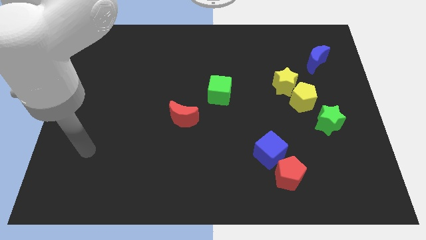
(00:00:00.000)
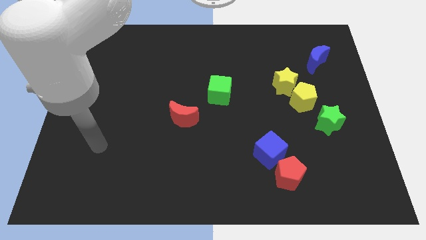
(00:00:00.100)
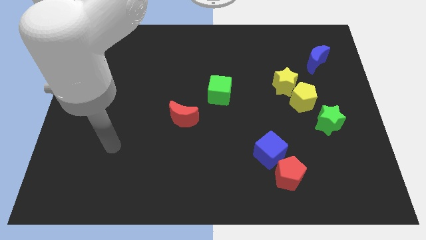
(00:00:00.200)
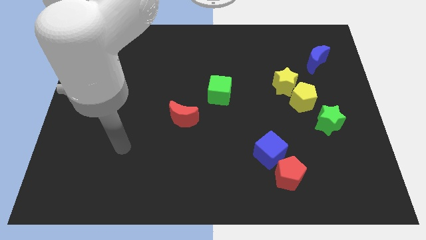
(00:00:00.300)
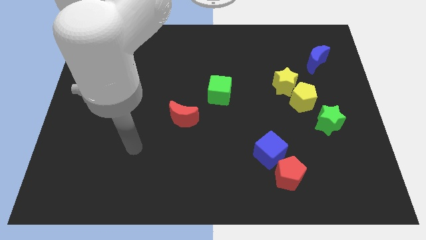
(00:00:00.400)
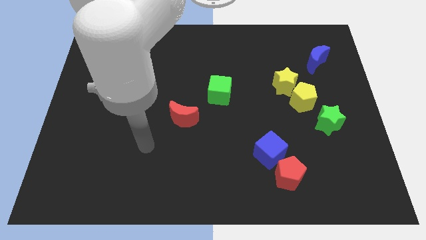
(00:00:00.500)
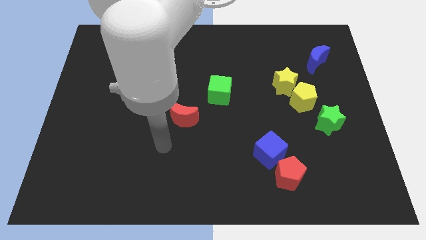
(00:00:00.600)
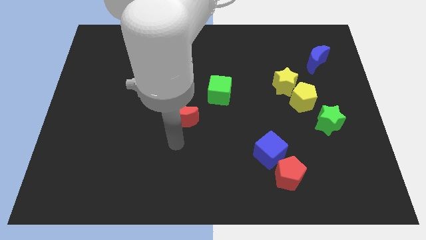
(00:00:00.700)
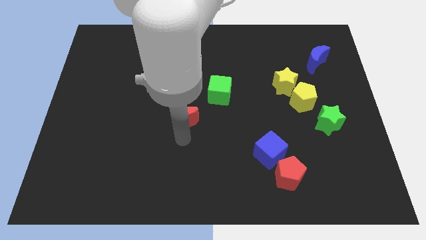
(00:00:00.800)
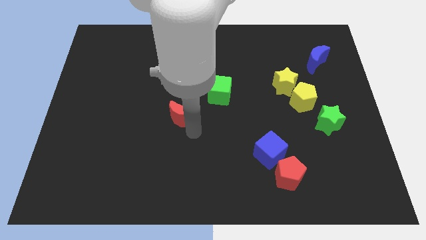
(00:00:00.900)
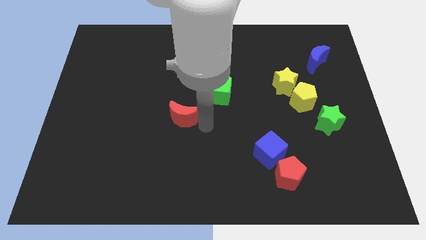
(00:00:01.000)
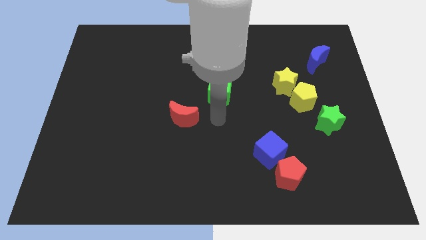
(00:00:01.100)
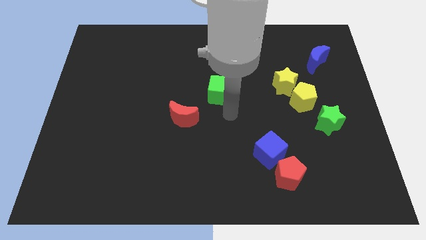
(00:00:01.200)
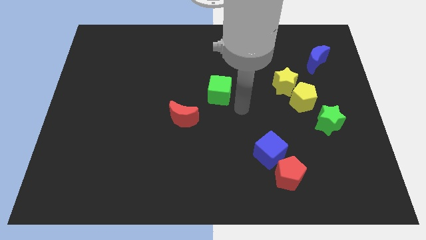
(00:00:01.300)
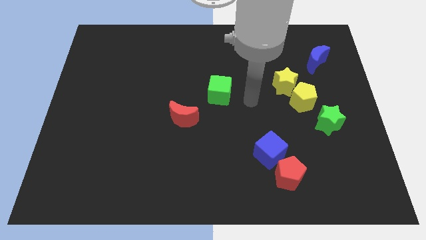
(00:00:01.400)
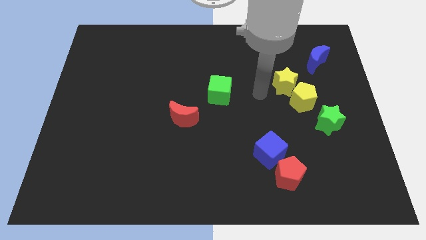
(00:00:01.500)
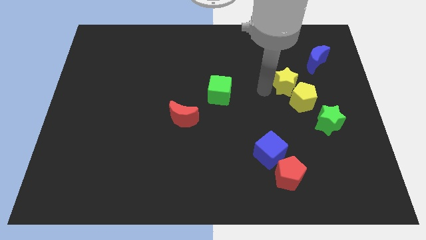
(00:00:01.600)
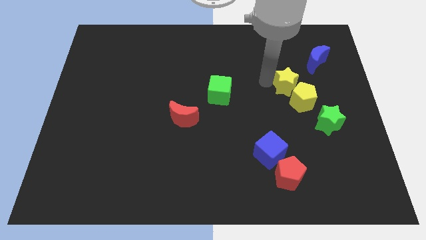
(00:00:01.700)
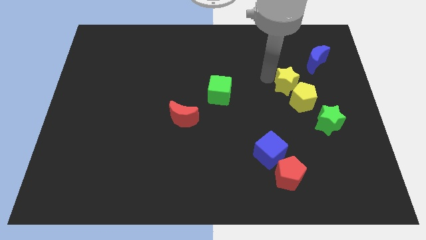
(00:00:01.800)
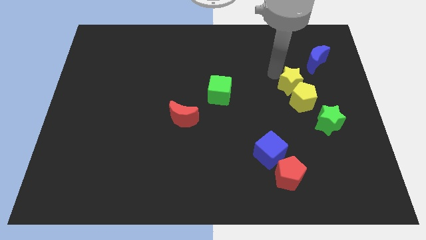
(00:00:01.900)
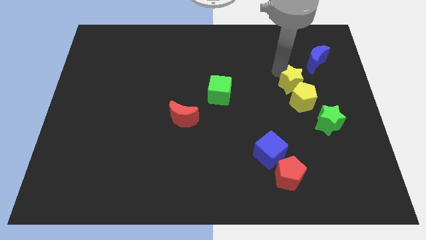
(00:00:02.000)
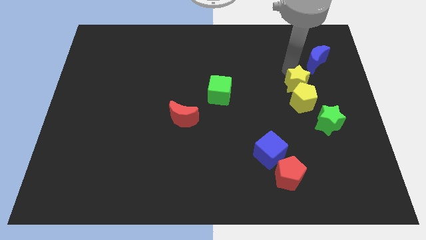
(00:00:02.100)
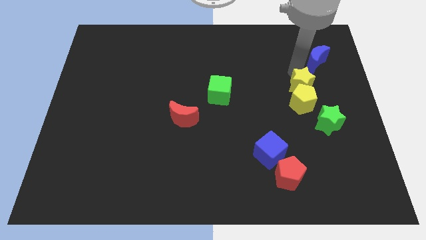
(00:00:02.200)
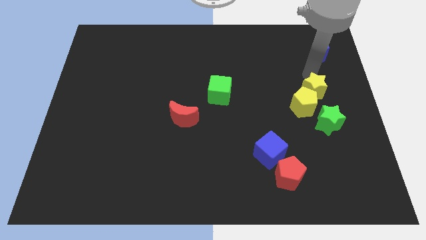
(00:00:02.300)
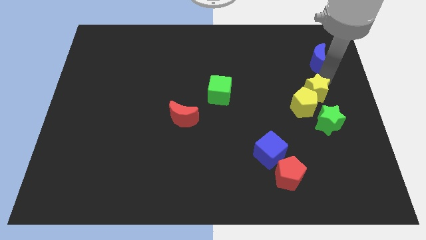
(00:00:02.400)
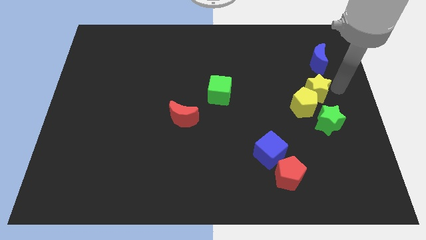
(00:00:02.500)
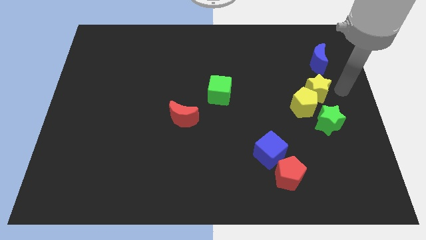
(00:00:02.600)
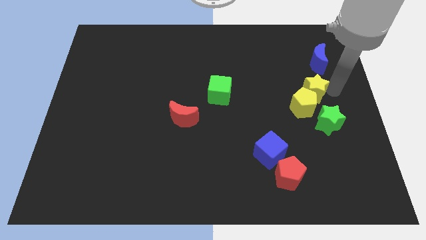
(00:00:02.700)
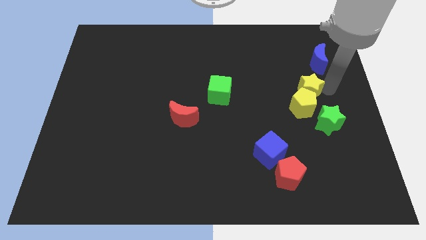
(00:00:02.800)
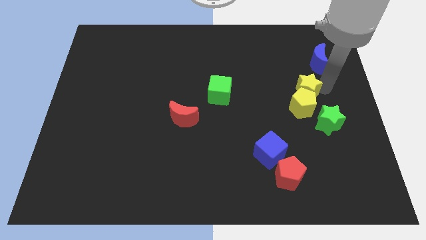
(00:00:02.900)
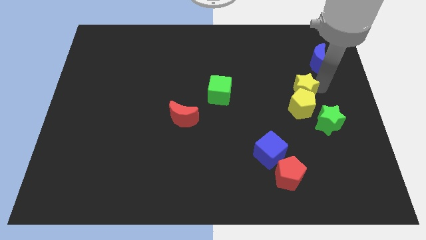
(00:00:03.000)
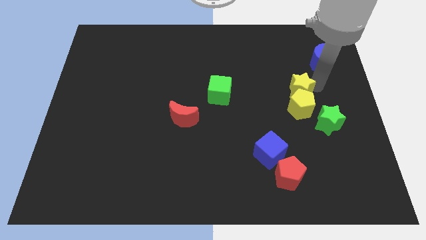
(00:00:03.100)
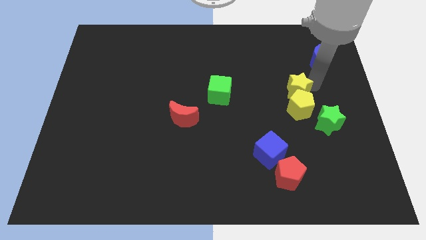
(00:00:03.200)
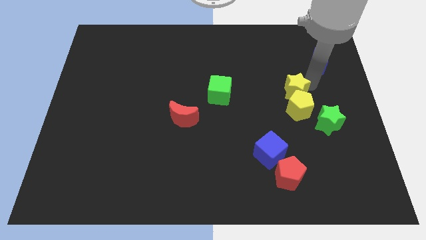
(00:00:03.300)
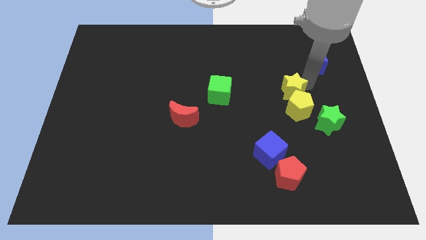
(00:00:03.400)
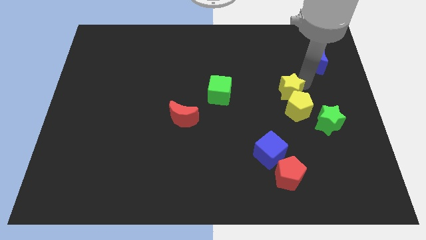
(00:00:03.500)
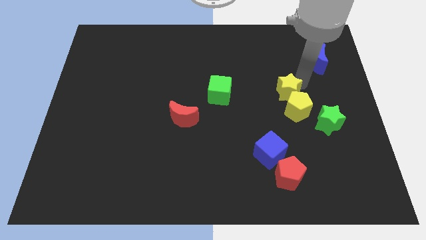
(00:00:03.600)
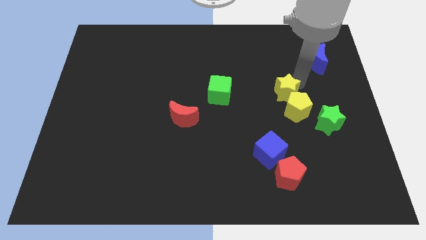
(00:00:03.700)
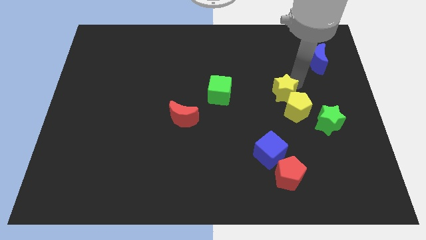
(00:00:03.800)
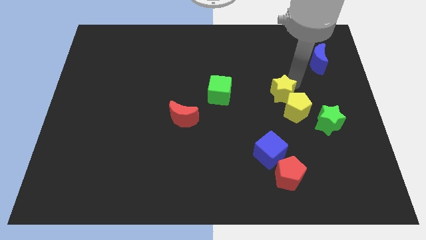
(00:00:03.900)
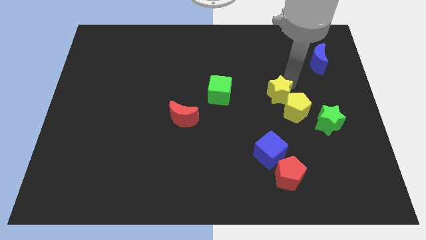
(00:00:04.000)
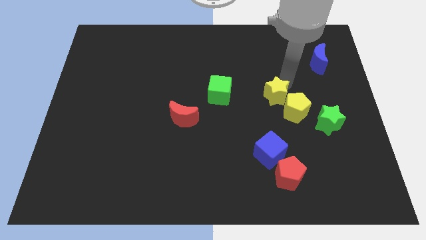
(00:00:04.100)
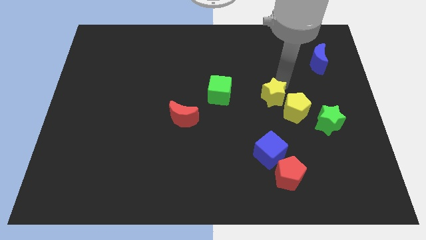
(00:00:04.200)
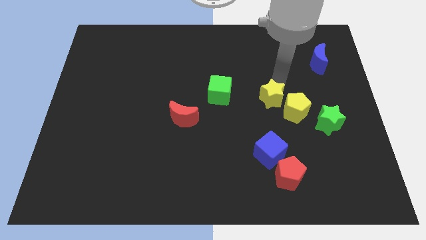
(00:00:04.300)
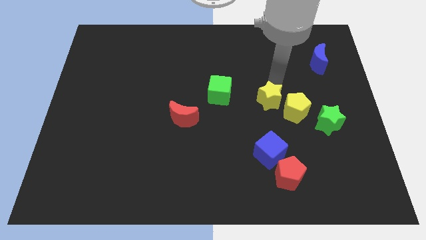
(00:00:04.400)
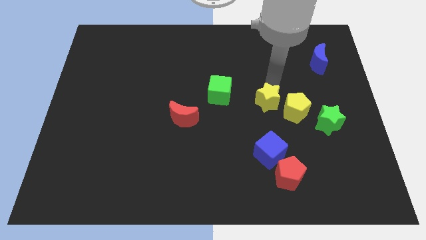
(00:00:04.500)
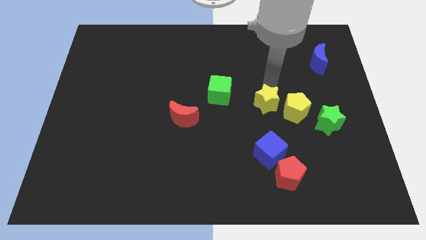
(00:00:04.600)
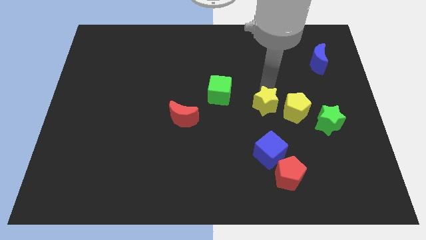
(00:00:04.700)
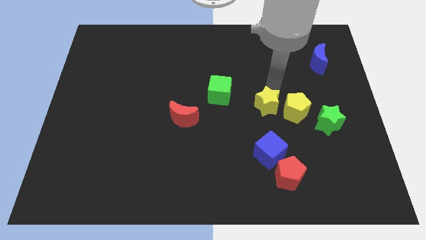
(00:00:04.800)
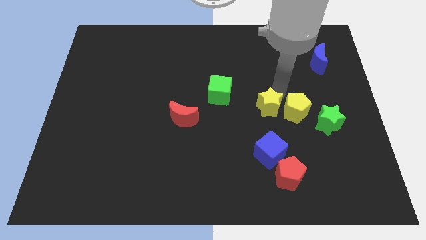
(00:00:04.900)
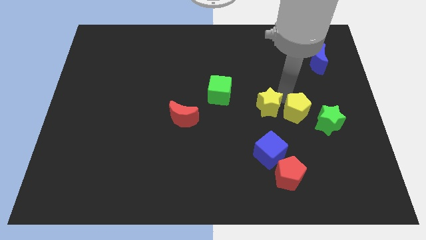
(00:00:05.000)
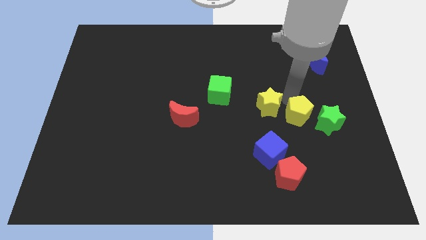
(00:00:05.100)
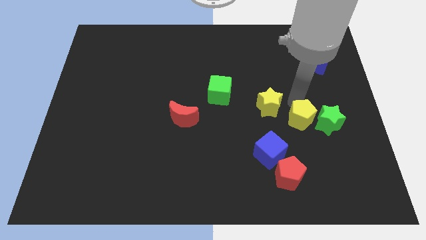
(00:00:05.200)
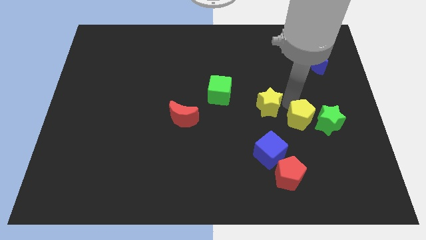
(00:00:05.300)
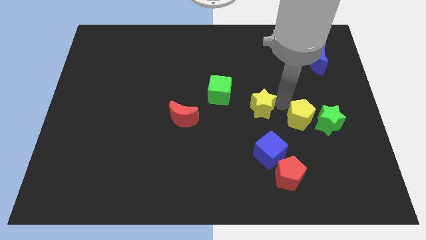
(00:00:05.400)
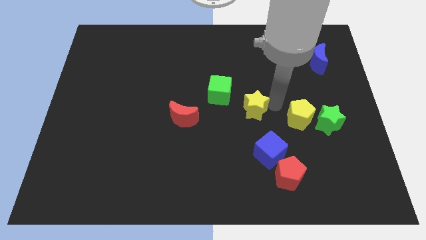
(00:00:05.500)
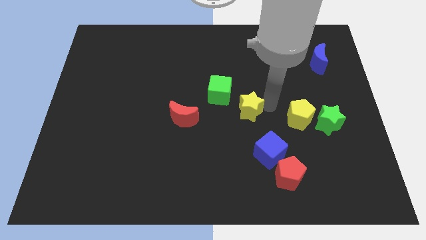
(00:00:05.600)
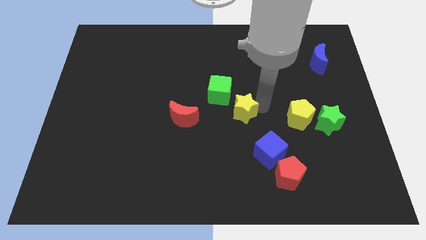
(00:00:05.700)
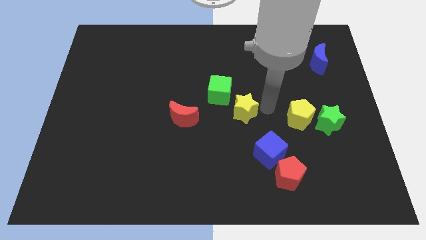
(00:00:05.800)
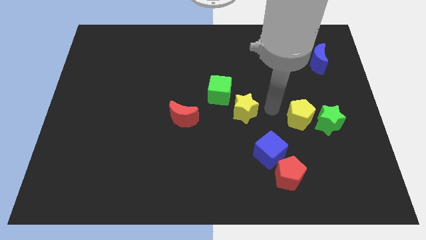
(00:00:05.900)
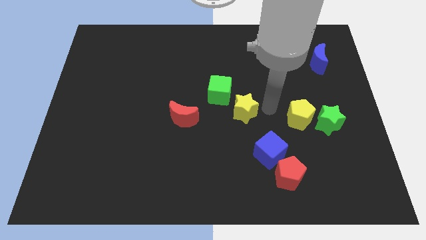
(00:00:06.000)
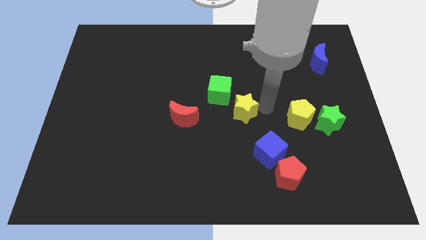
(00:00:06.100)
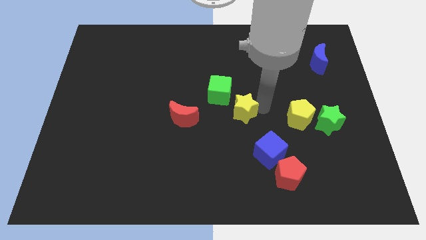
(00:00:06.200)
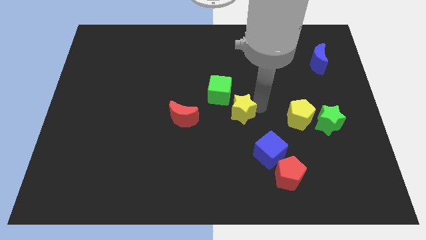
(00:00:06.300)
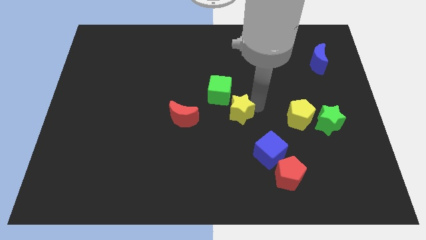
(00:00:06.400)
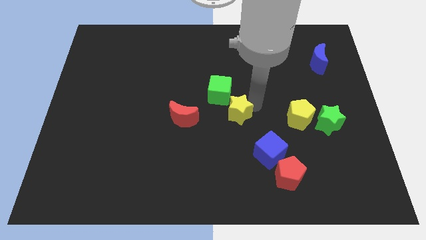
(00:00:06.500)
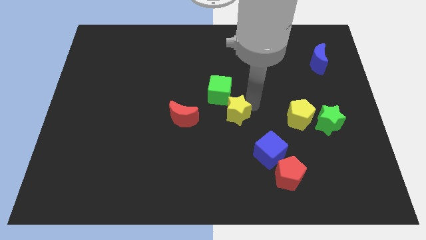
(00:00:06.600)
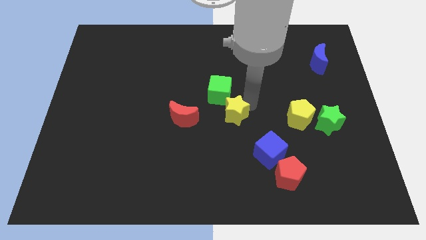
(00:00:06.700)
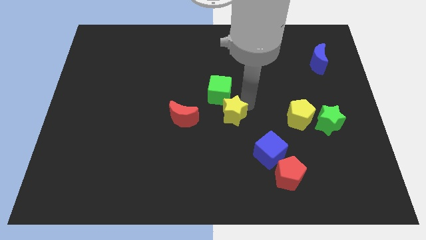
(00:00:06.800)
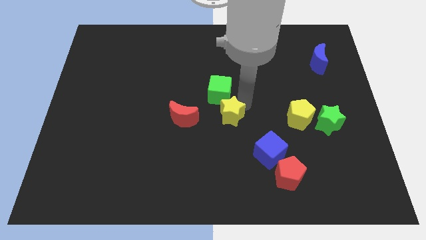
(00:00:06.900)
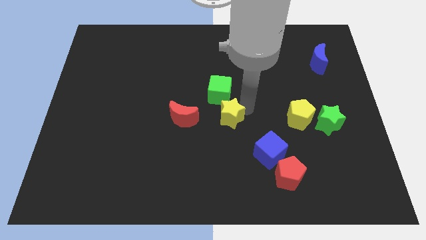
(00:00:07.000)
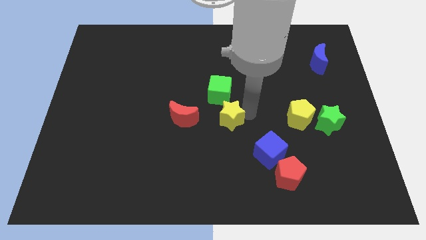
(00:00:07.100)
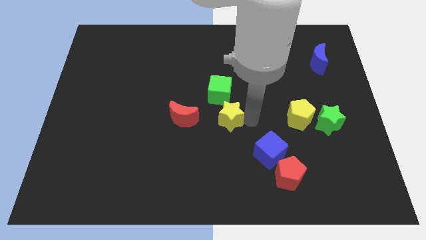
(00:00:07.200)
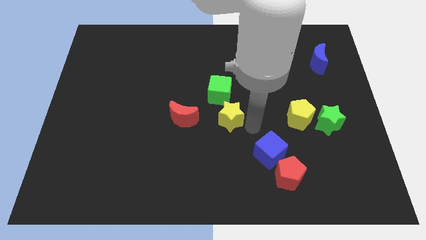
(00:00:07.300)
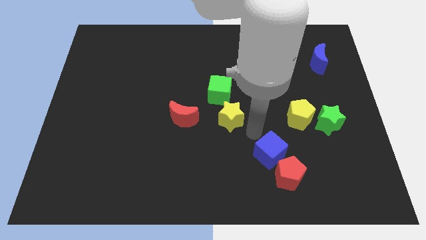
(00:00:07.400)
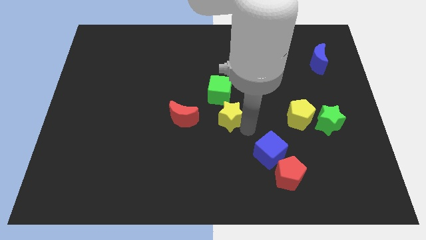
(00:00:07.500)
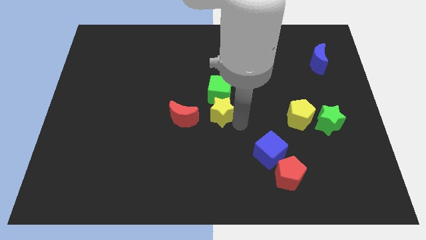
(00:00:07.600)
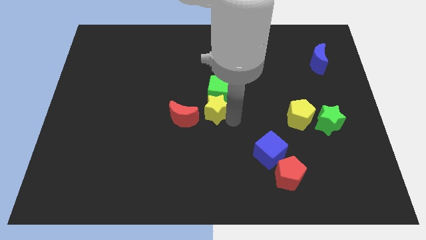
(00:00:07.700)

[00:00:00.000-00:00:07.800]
slide the yellow star to the top right of the red moon
